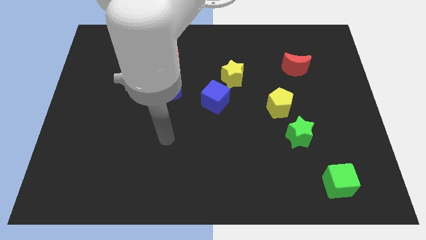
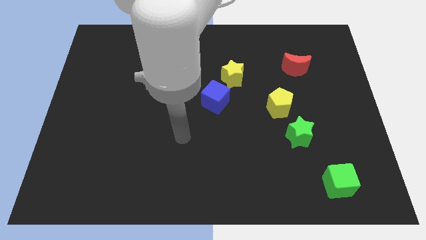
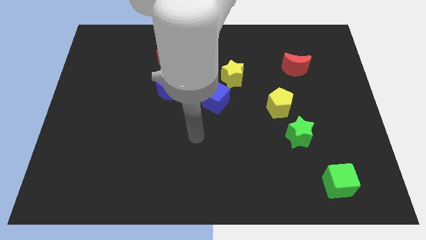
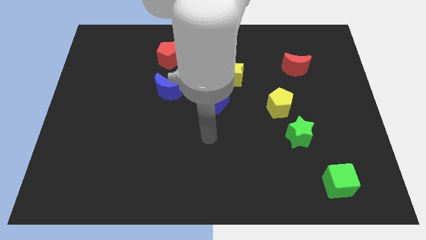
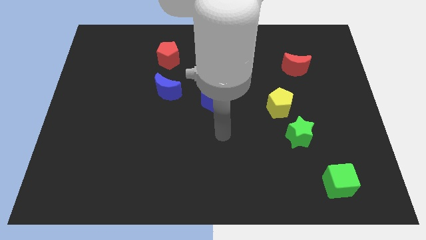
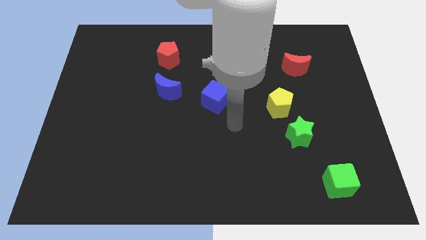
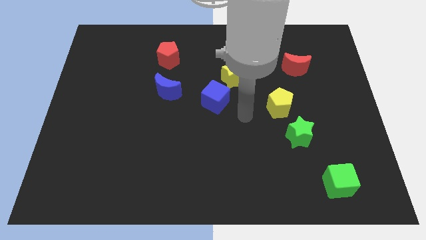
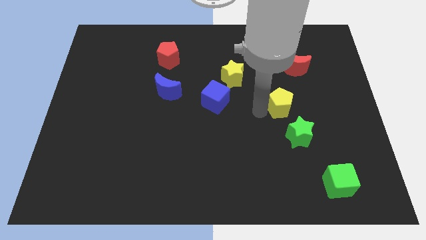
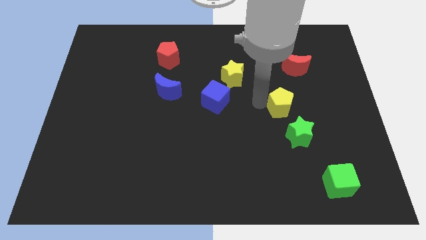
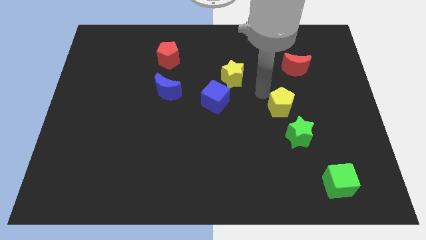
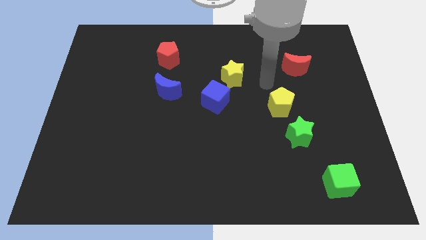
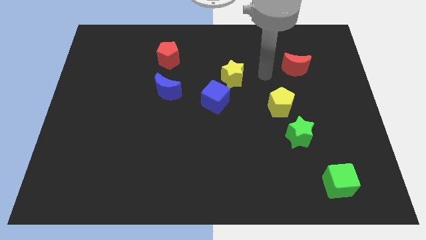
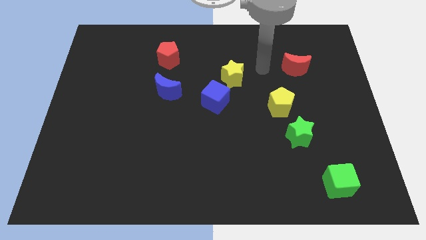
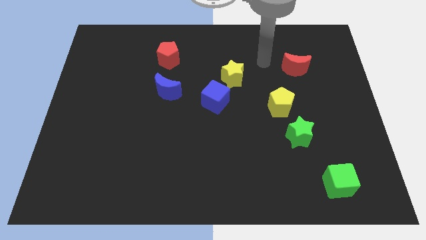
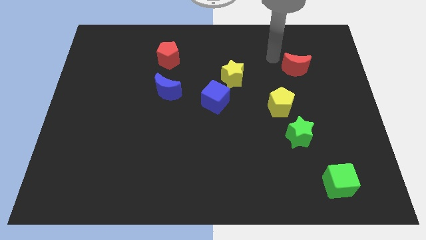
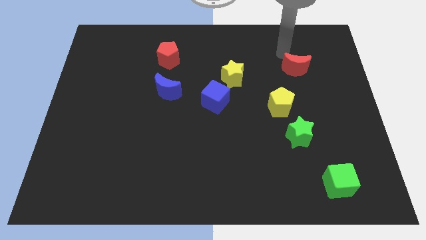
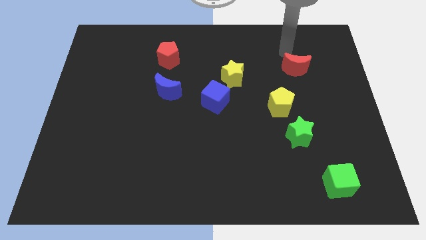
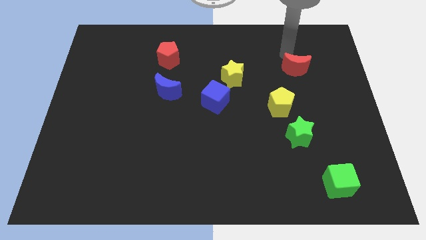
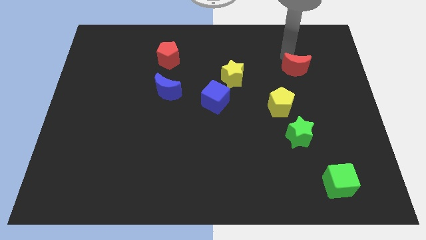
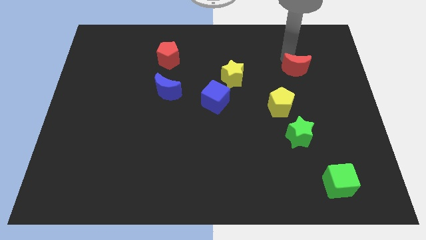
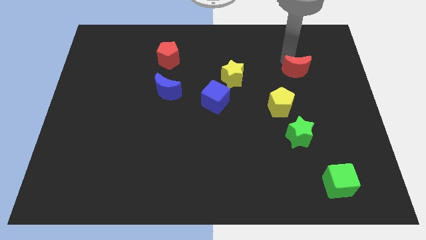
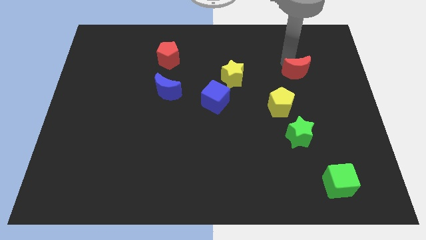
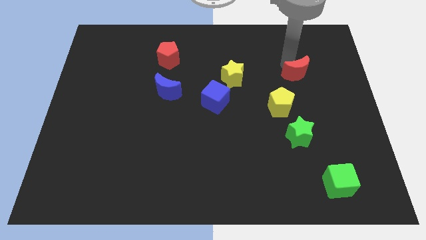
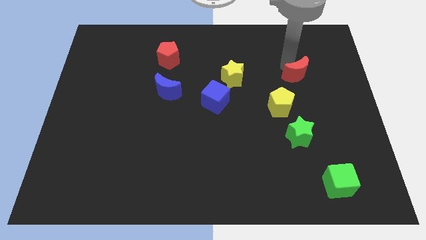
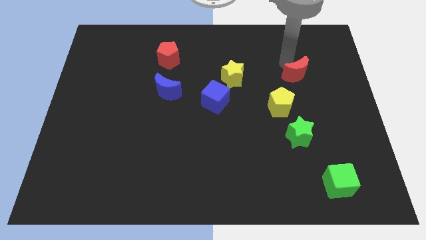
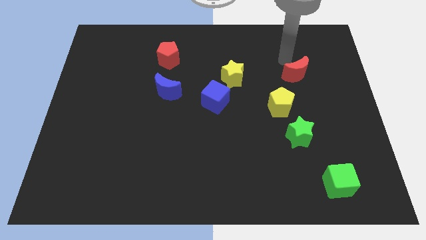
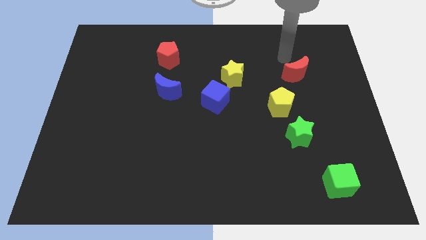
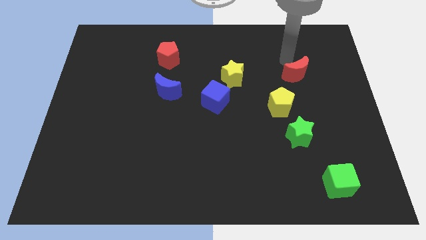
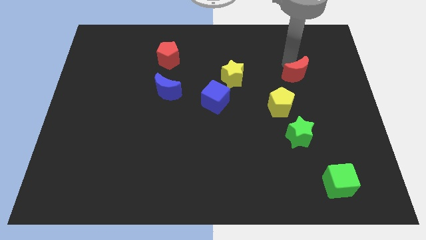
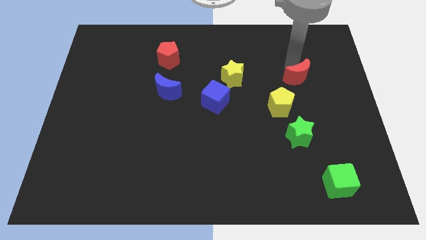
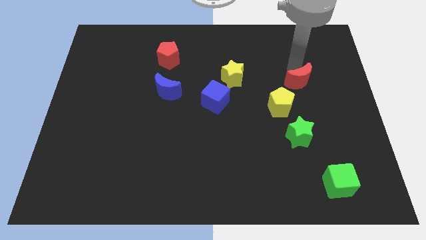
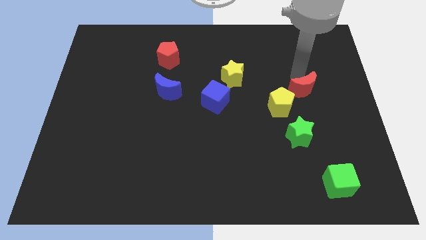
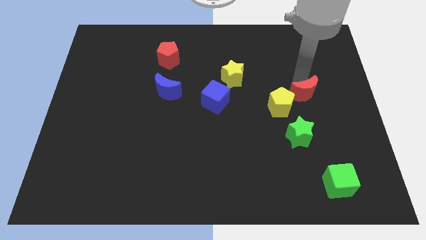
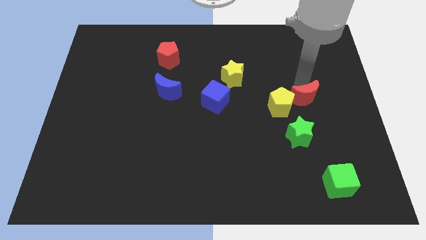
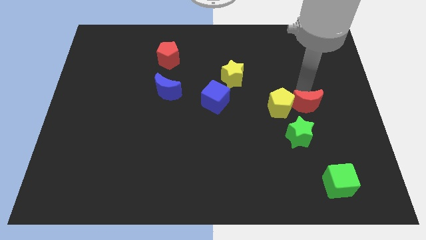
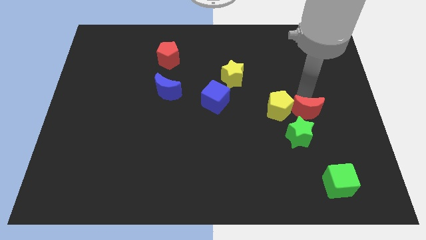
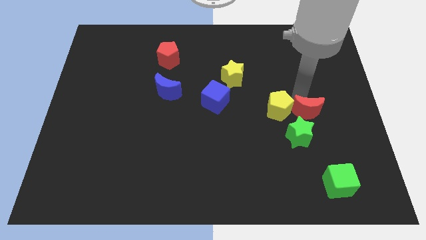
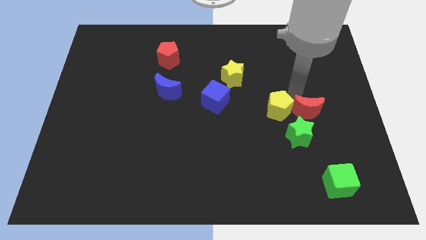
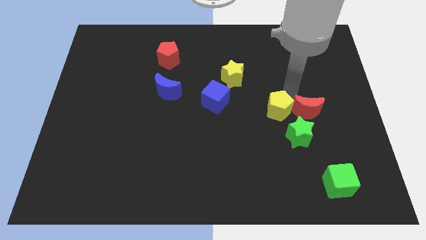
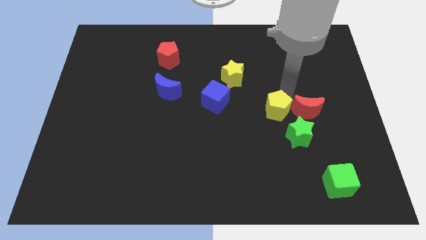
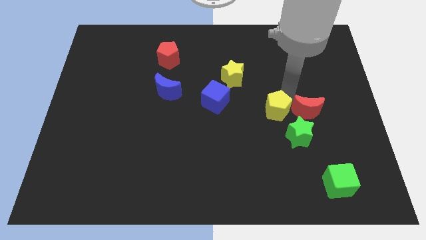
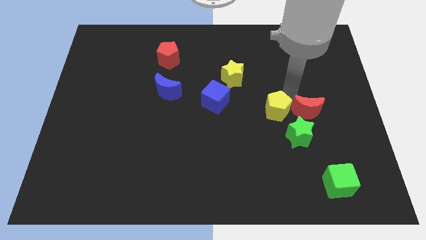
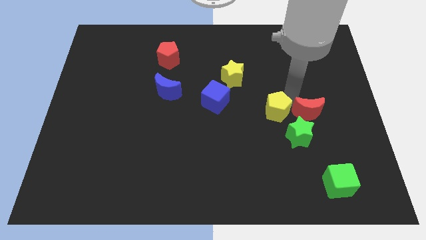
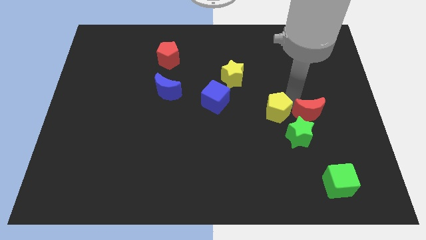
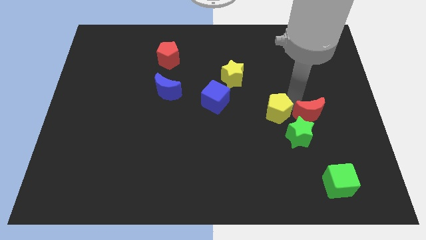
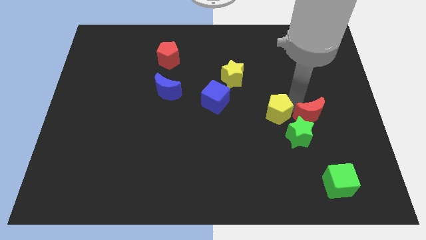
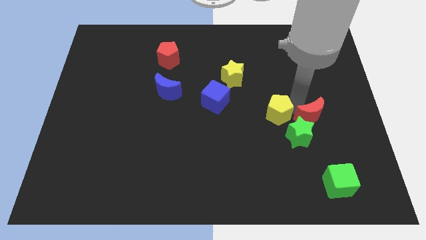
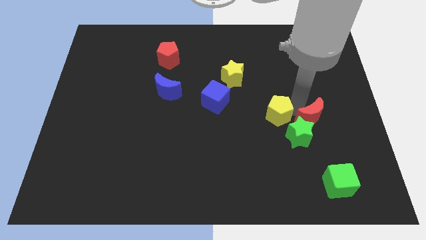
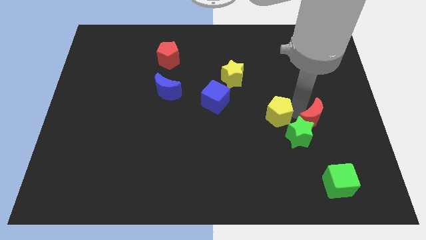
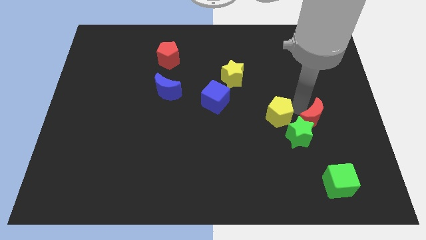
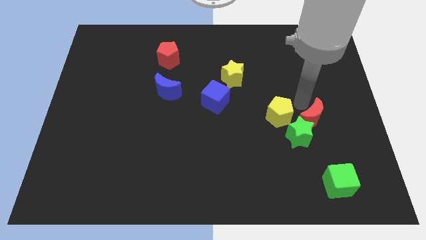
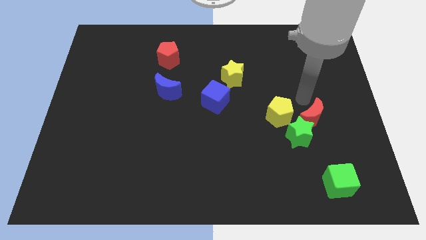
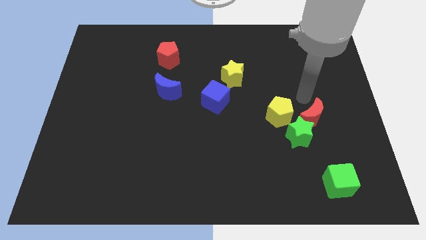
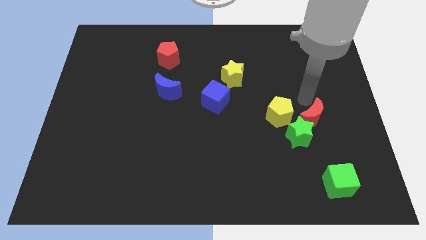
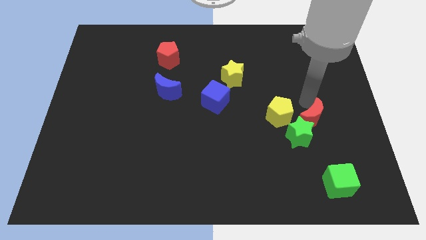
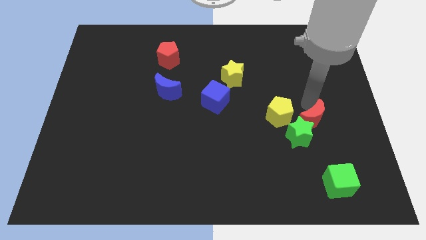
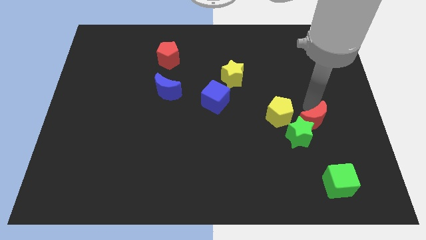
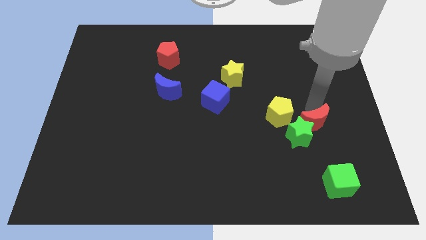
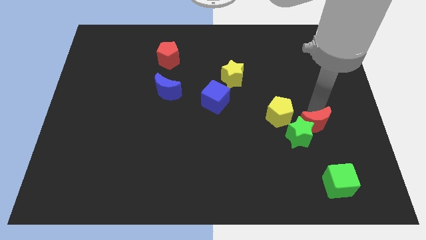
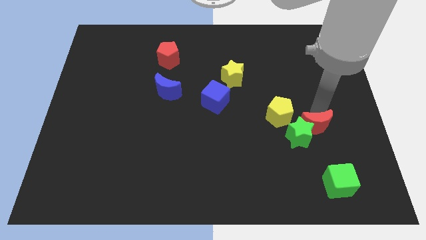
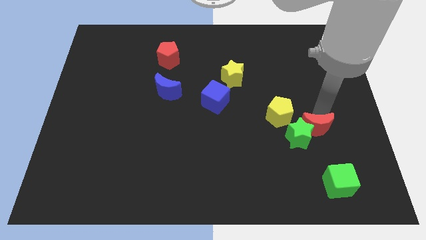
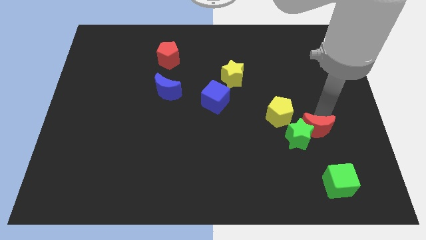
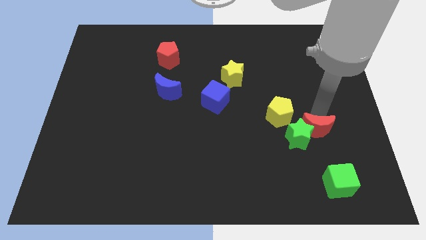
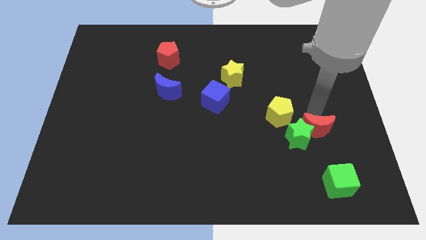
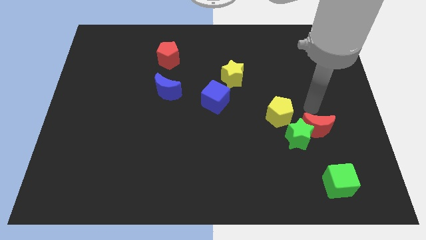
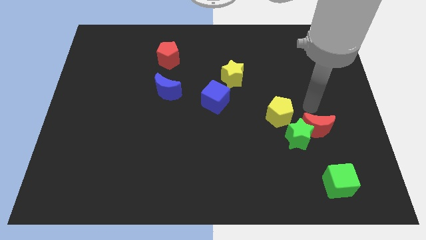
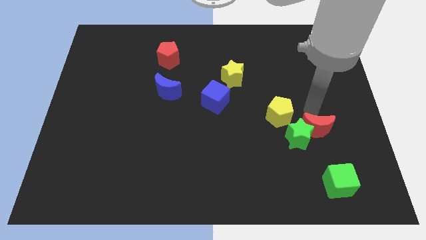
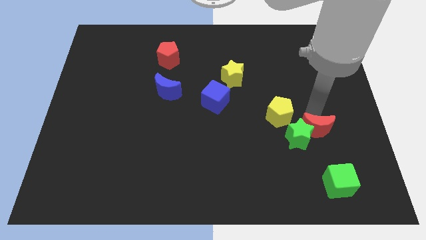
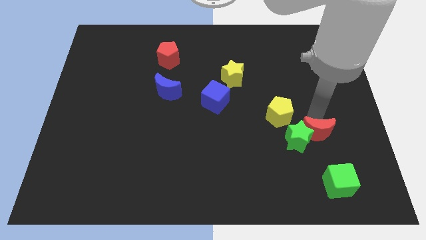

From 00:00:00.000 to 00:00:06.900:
move the red moon down

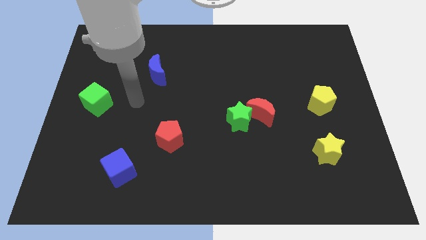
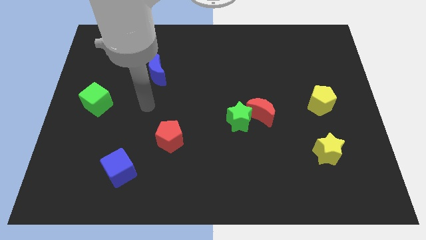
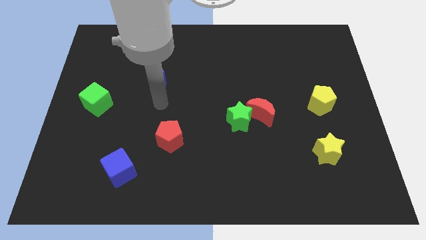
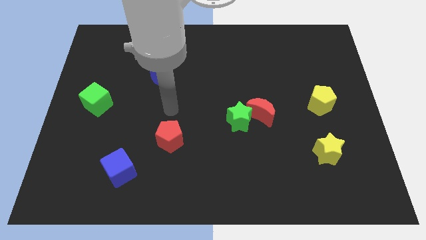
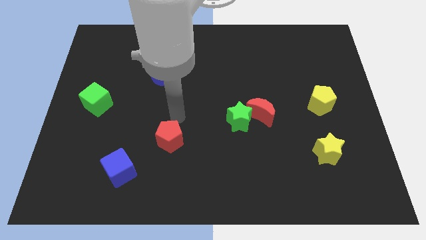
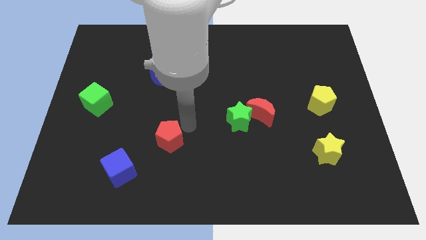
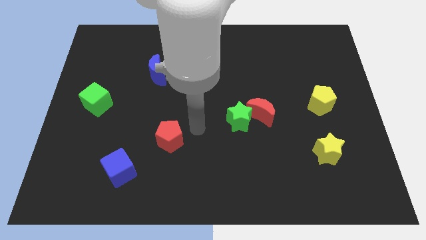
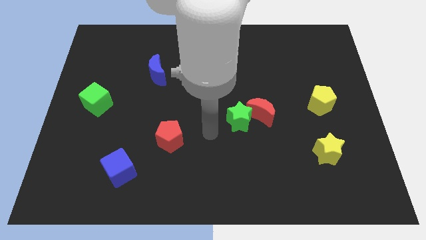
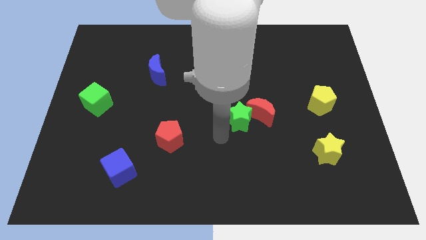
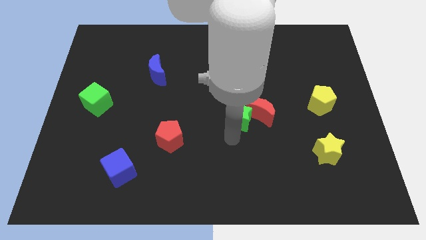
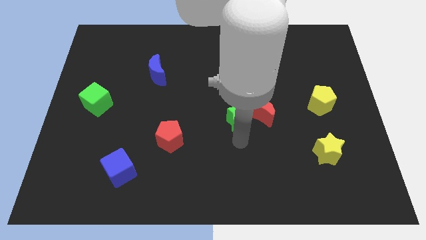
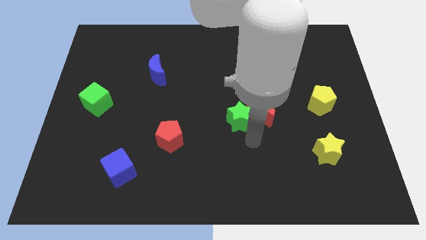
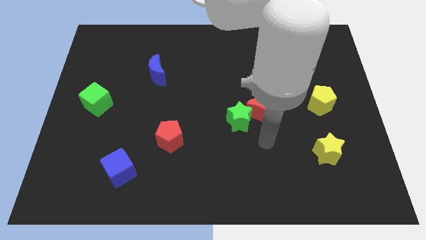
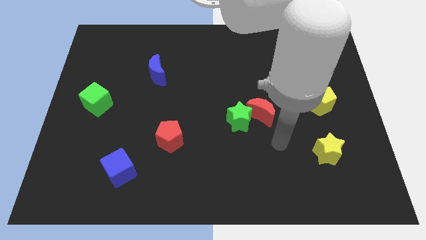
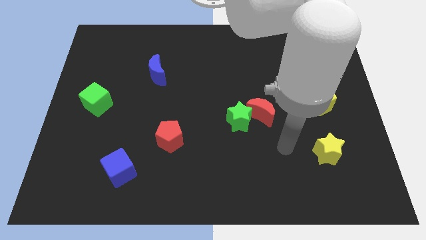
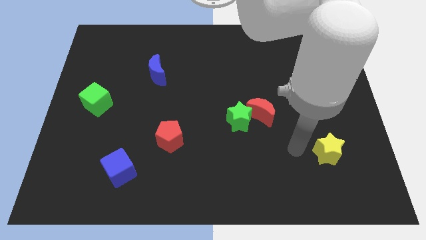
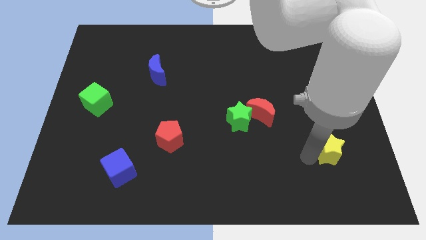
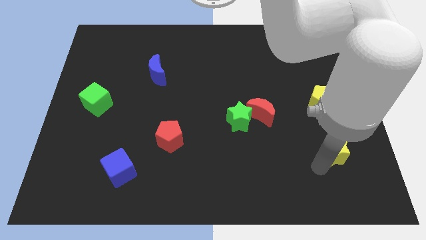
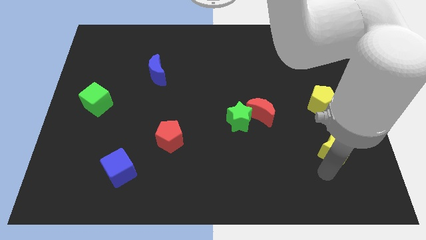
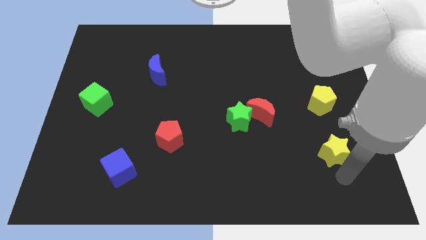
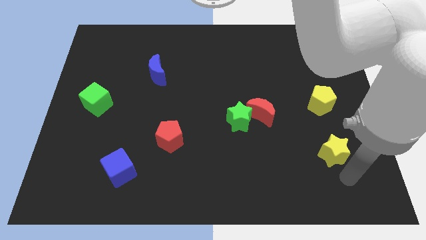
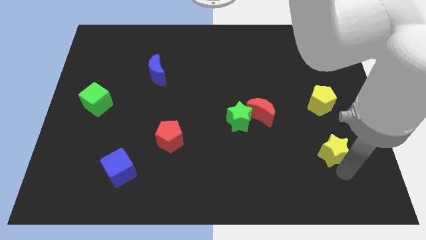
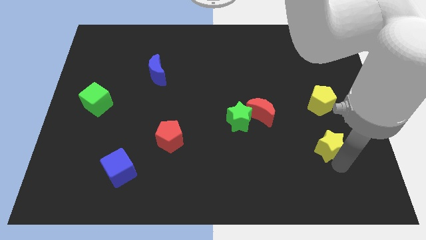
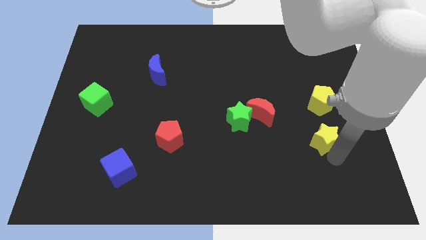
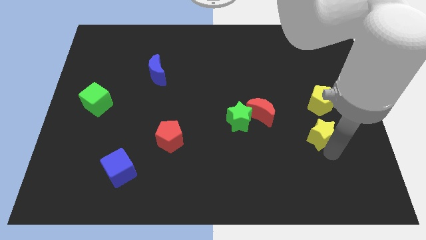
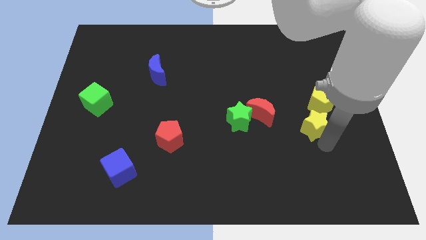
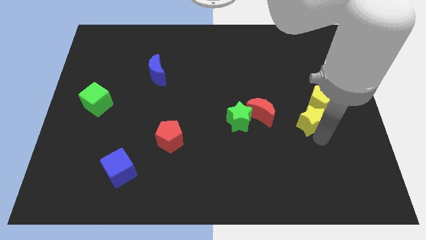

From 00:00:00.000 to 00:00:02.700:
slightly slide the yellow star up
